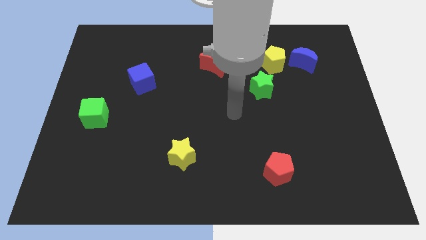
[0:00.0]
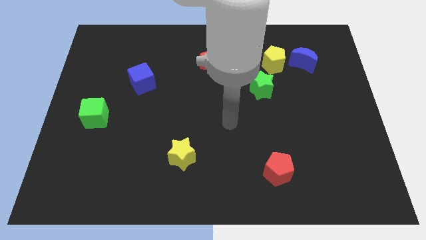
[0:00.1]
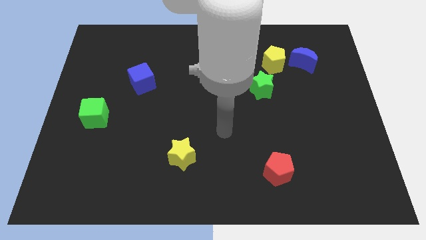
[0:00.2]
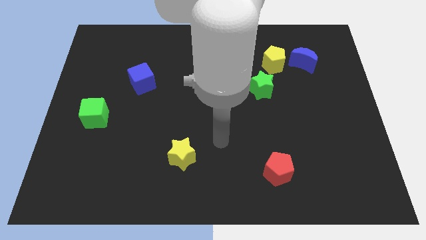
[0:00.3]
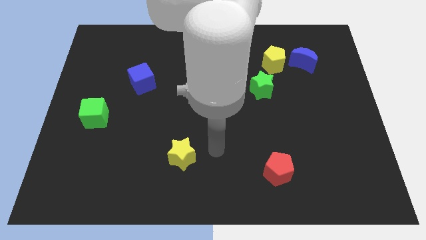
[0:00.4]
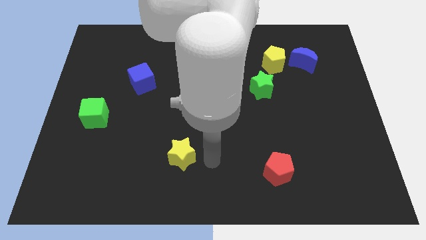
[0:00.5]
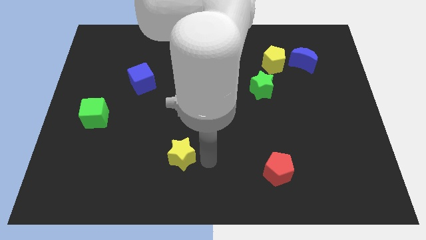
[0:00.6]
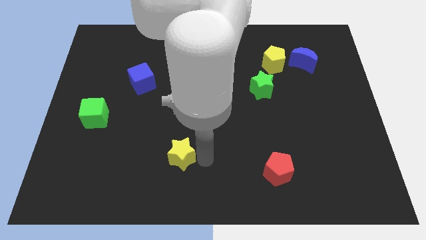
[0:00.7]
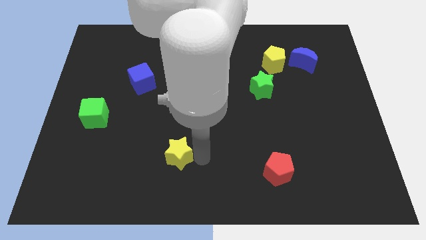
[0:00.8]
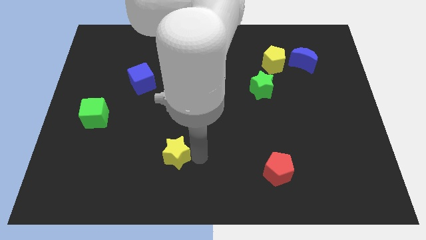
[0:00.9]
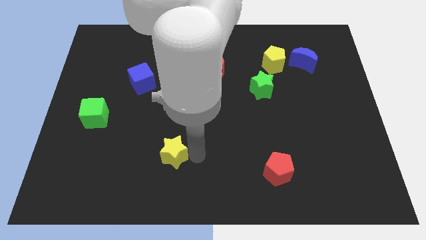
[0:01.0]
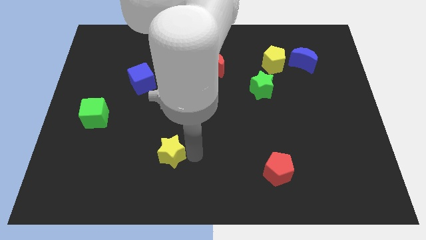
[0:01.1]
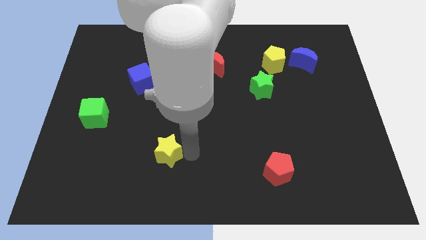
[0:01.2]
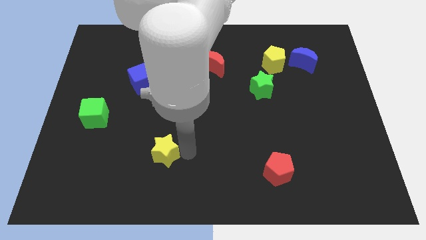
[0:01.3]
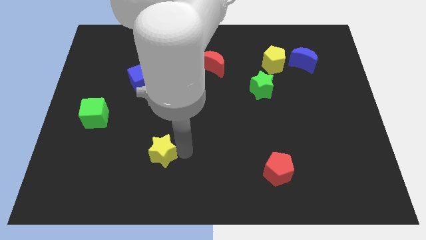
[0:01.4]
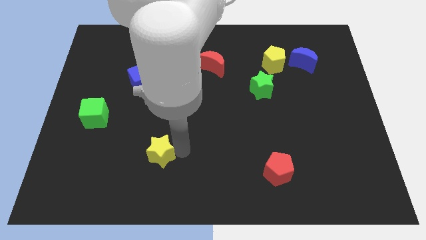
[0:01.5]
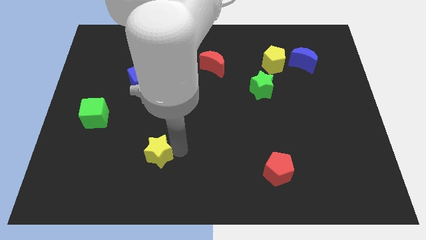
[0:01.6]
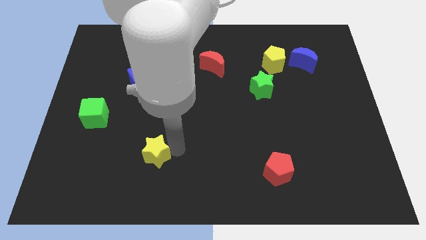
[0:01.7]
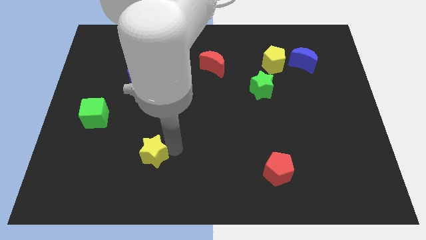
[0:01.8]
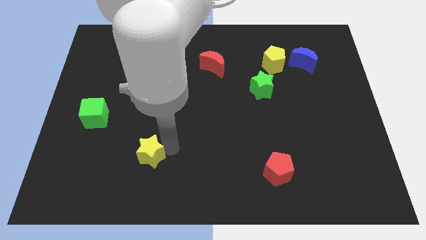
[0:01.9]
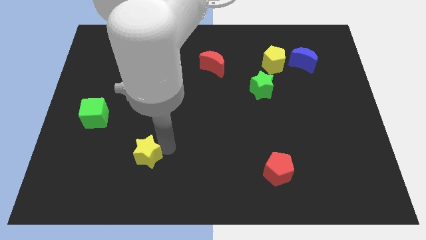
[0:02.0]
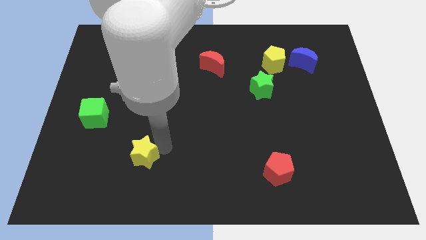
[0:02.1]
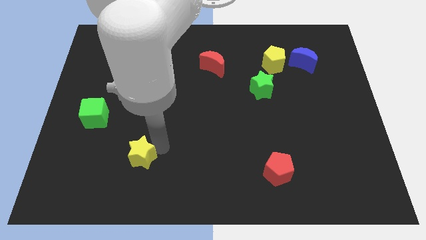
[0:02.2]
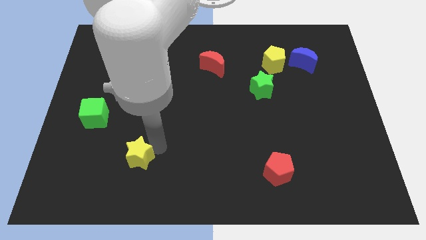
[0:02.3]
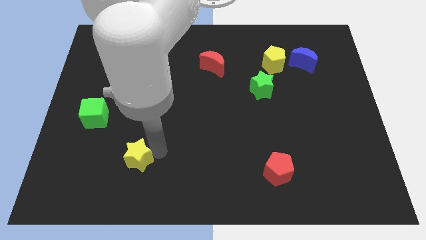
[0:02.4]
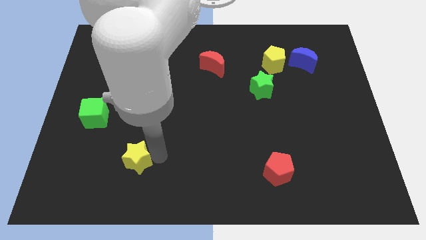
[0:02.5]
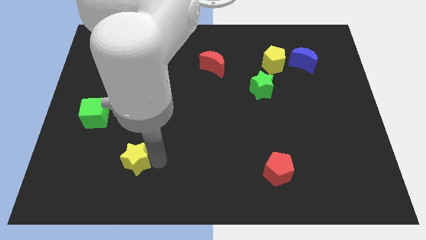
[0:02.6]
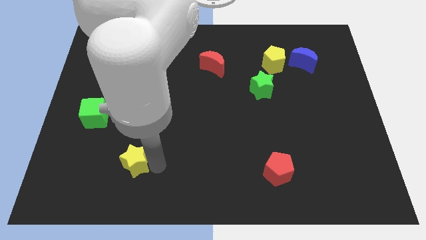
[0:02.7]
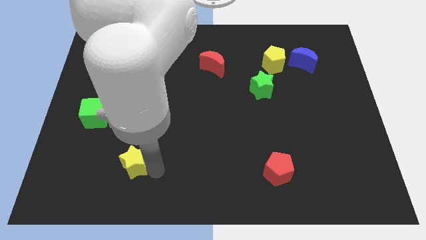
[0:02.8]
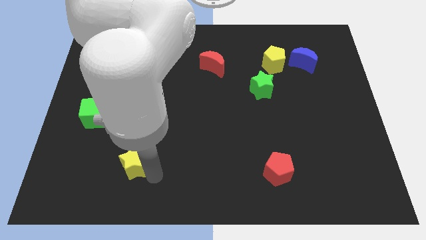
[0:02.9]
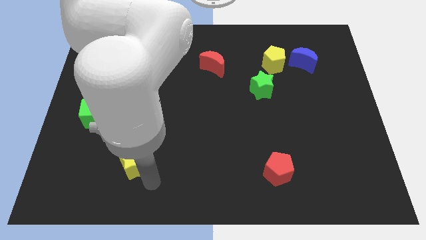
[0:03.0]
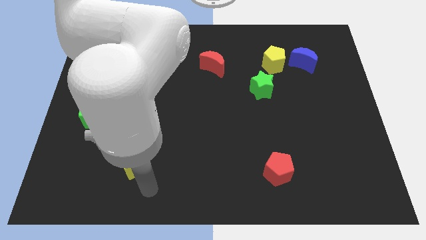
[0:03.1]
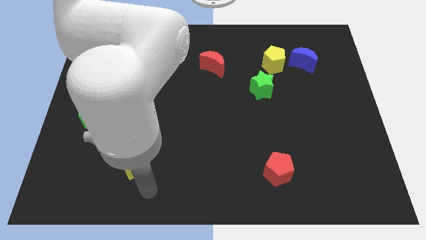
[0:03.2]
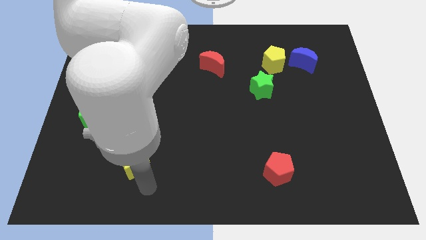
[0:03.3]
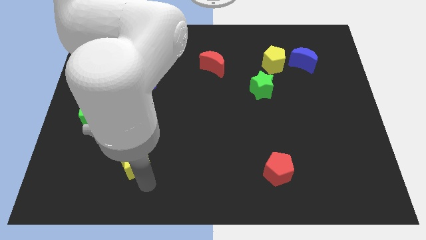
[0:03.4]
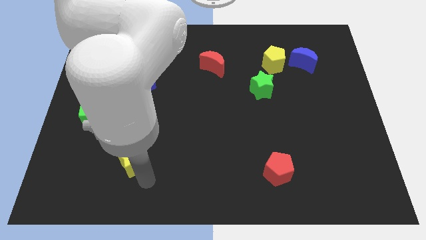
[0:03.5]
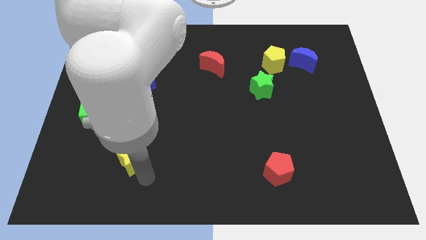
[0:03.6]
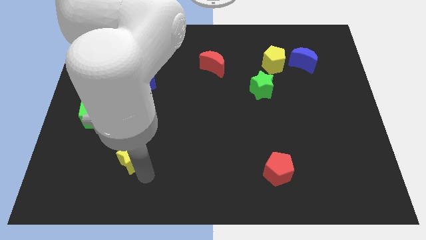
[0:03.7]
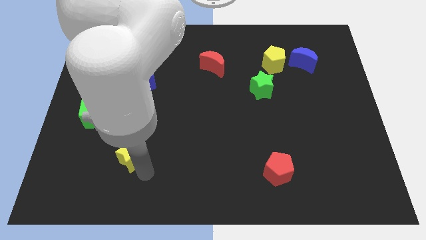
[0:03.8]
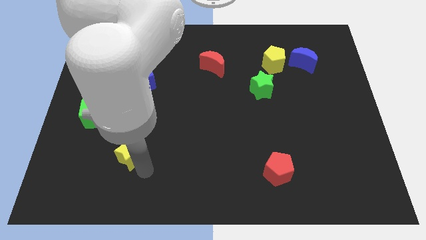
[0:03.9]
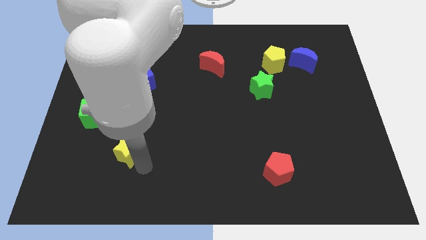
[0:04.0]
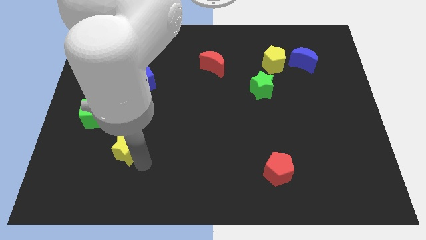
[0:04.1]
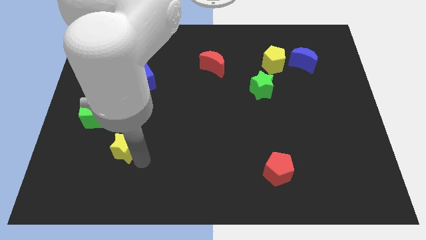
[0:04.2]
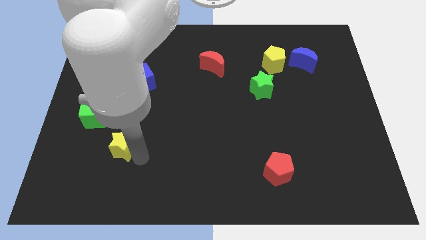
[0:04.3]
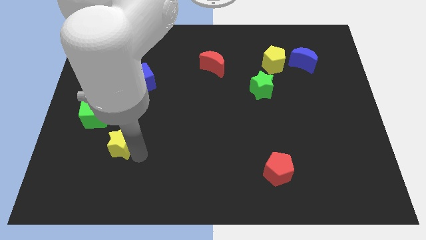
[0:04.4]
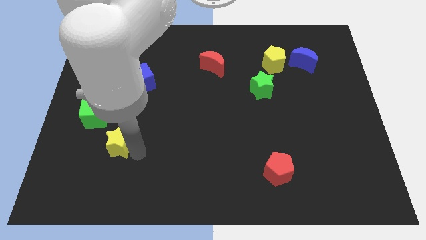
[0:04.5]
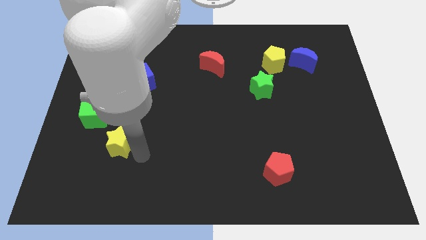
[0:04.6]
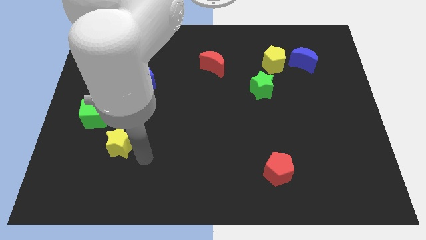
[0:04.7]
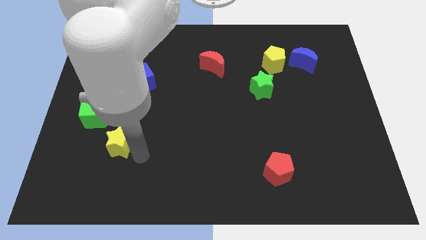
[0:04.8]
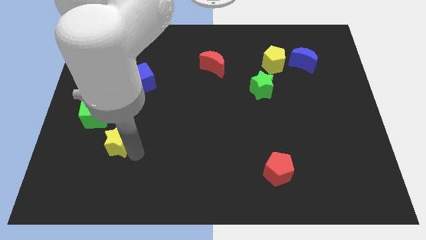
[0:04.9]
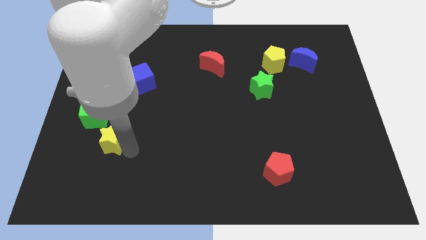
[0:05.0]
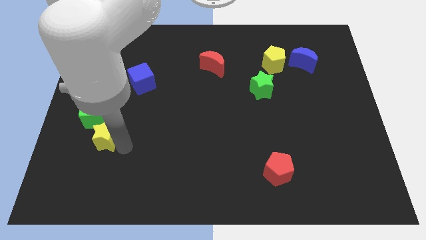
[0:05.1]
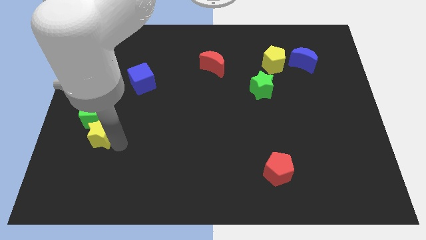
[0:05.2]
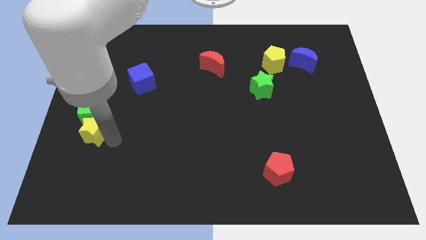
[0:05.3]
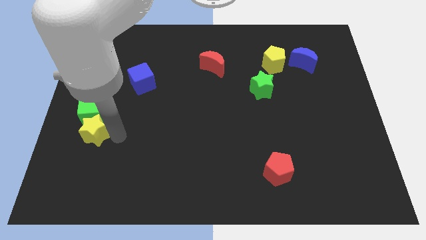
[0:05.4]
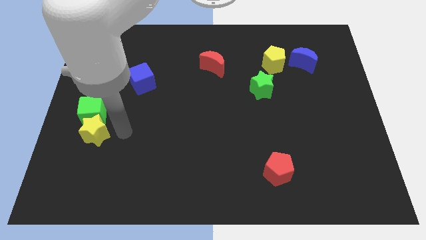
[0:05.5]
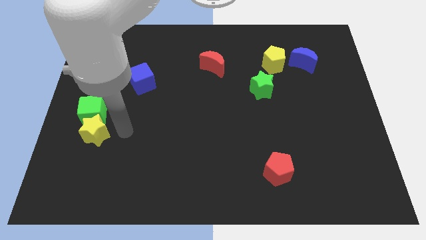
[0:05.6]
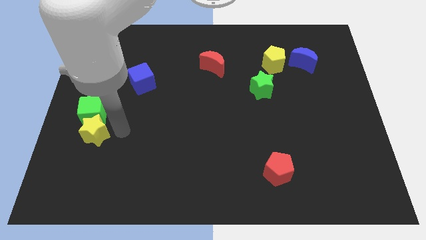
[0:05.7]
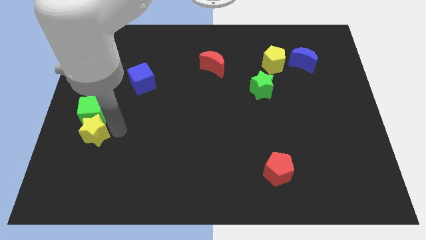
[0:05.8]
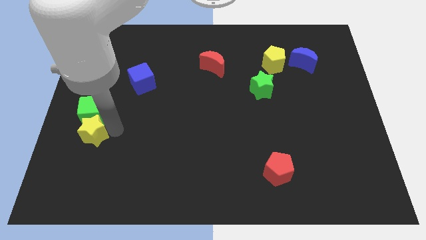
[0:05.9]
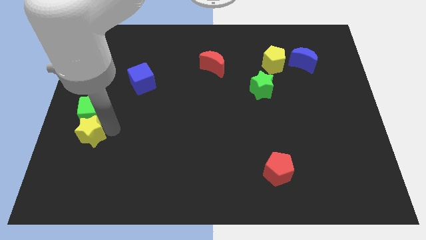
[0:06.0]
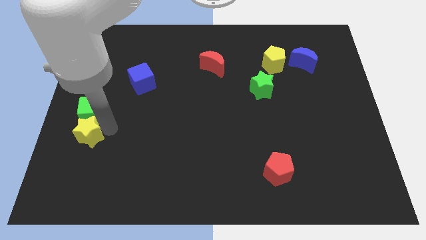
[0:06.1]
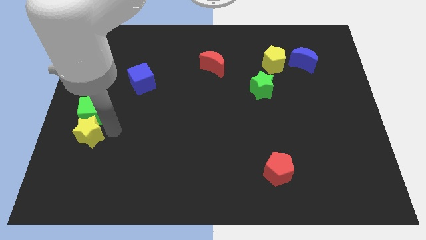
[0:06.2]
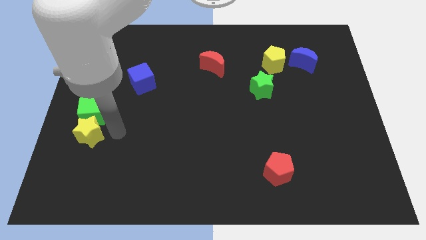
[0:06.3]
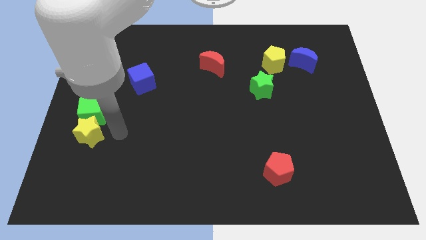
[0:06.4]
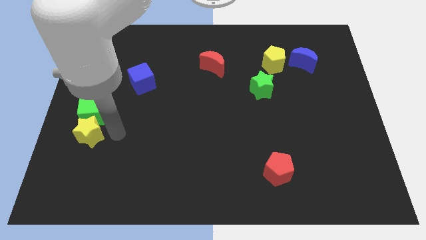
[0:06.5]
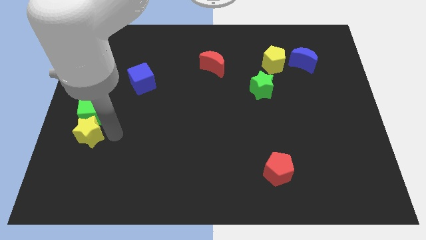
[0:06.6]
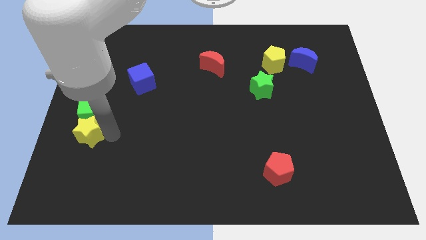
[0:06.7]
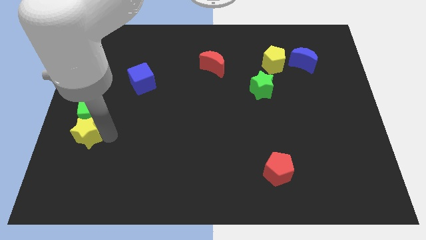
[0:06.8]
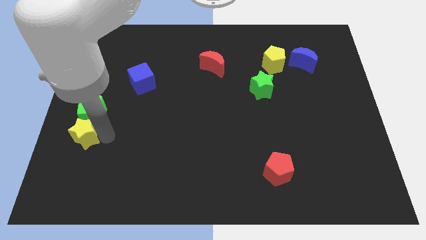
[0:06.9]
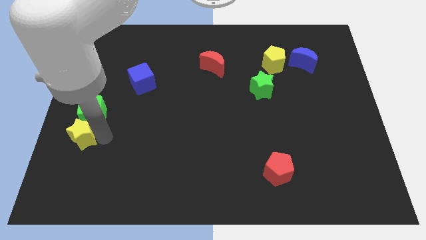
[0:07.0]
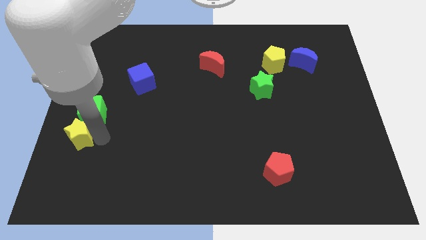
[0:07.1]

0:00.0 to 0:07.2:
slide the yellow star to the center left
